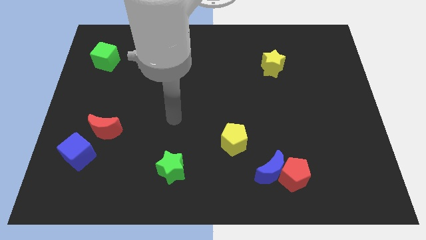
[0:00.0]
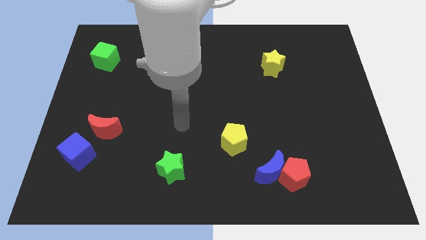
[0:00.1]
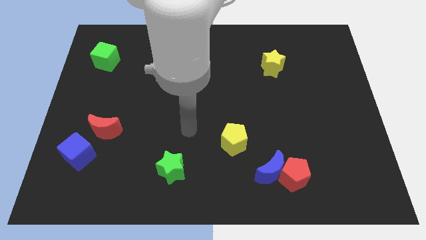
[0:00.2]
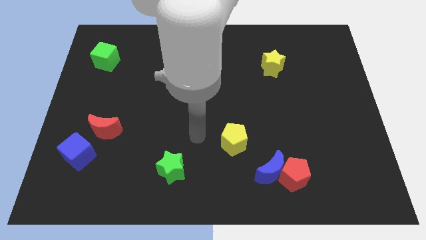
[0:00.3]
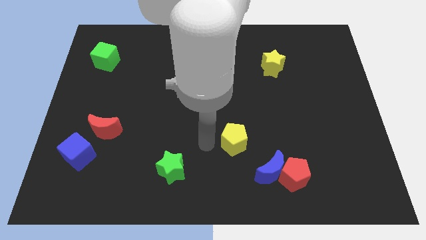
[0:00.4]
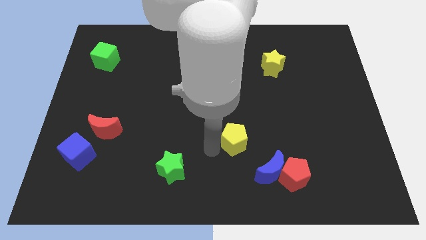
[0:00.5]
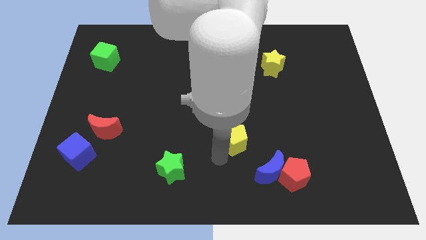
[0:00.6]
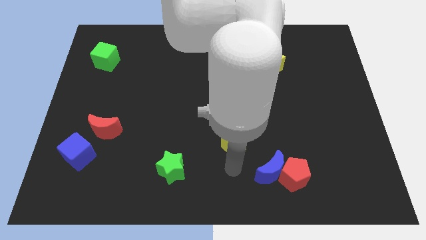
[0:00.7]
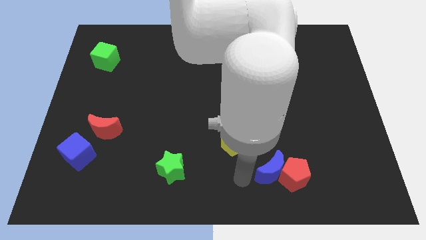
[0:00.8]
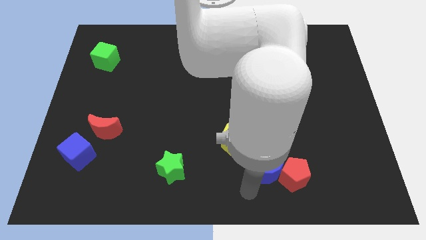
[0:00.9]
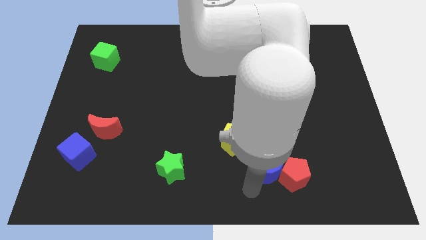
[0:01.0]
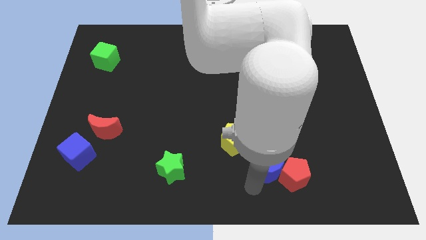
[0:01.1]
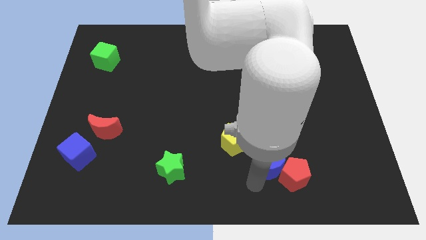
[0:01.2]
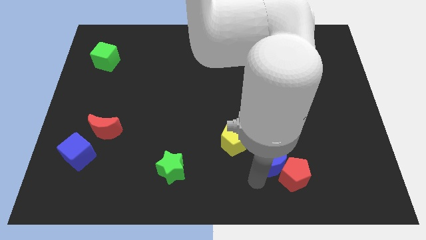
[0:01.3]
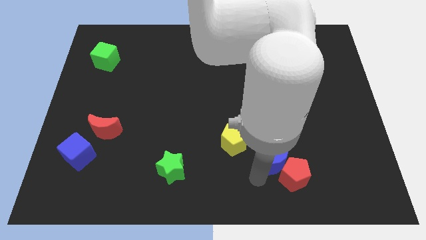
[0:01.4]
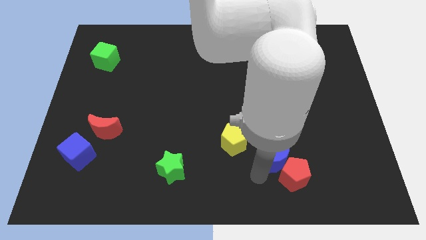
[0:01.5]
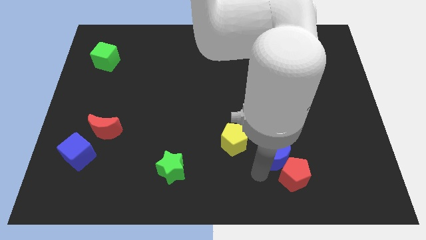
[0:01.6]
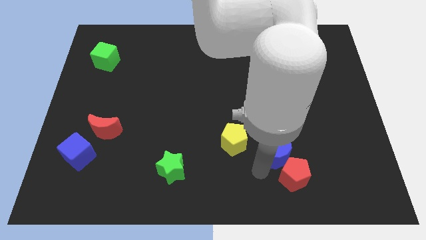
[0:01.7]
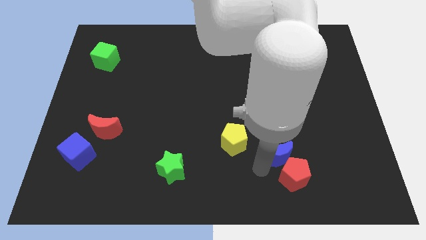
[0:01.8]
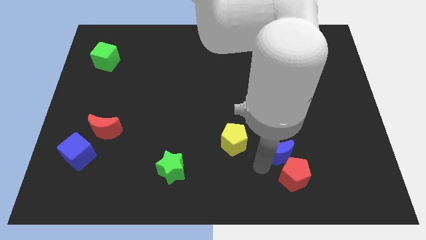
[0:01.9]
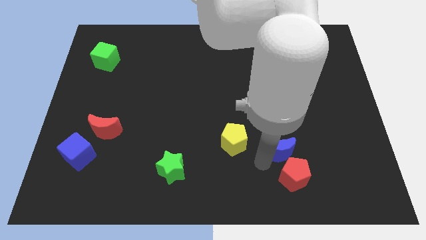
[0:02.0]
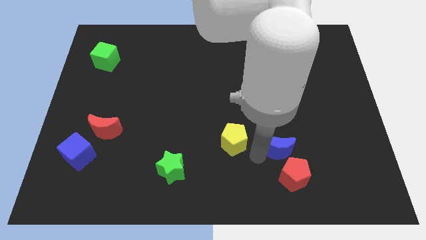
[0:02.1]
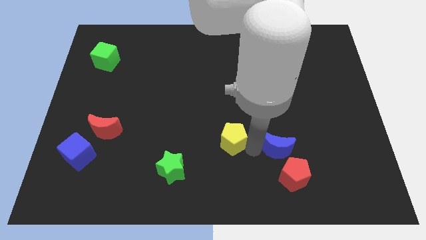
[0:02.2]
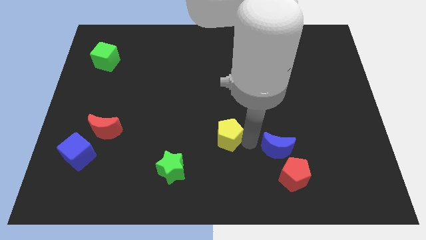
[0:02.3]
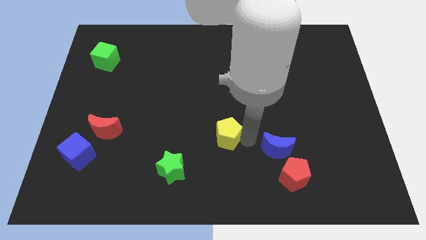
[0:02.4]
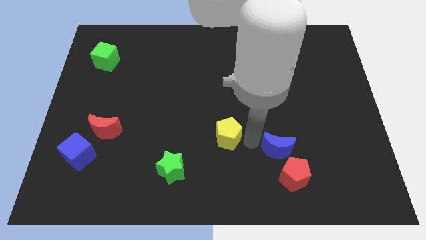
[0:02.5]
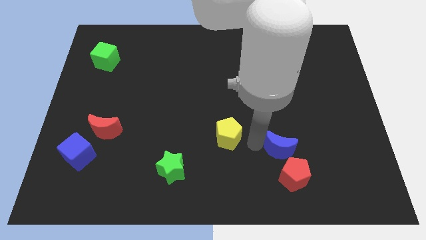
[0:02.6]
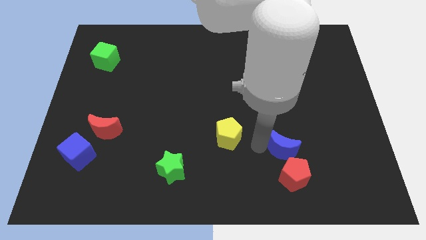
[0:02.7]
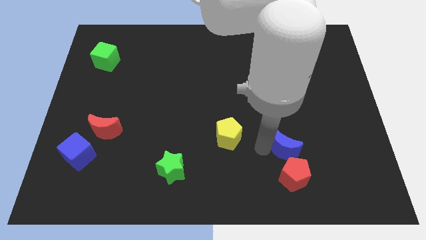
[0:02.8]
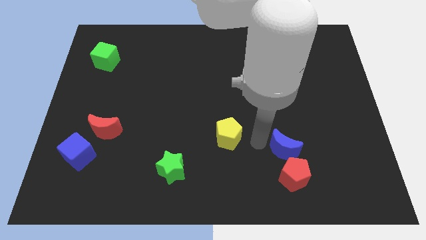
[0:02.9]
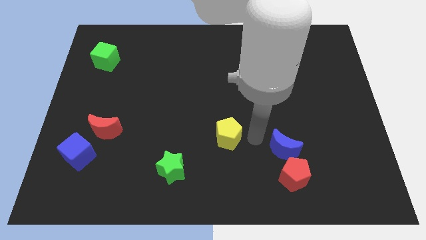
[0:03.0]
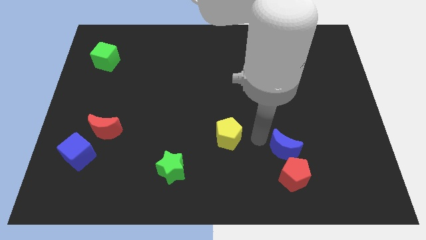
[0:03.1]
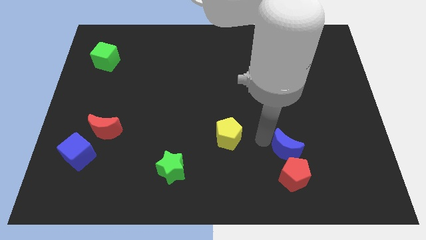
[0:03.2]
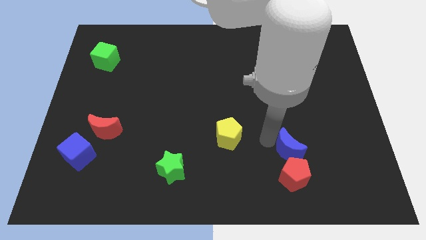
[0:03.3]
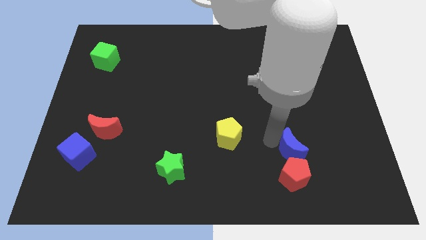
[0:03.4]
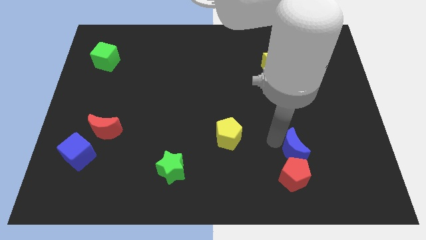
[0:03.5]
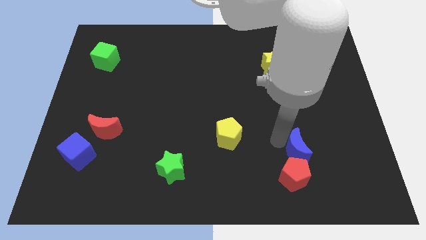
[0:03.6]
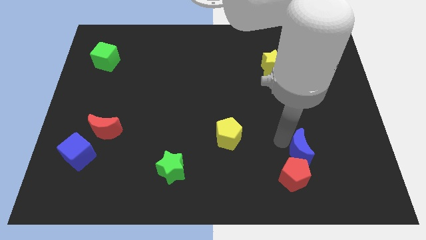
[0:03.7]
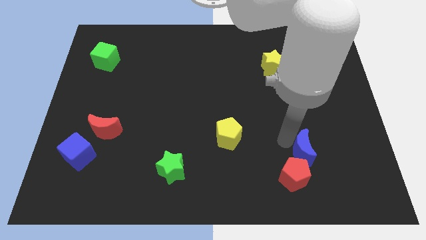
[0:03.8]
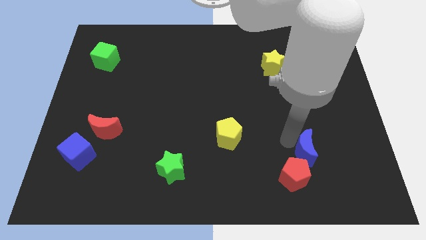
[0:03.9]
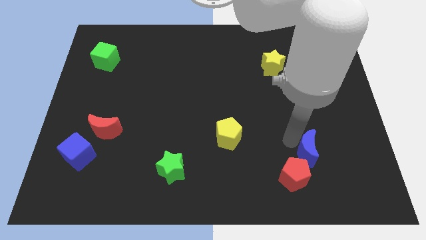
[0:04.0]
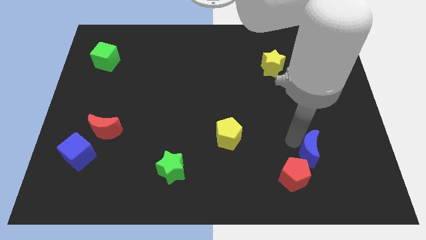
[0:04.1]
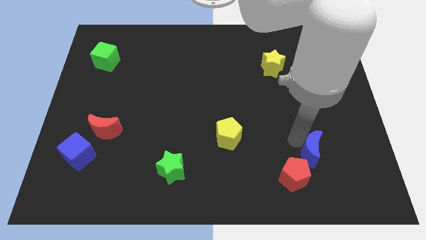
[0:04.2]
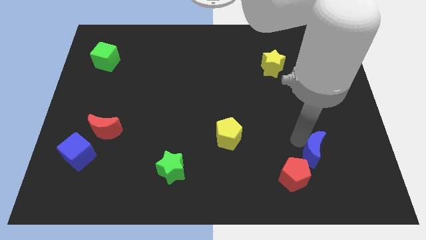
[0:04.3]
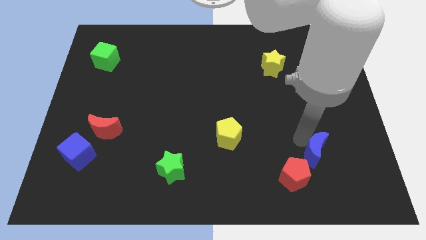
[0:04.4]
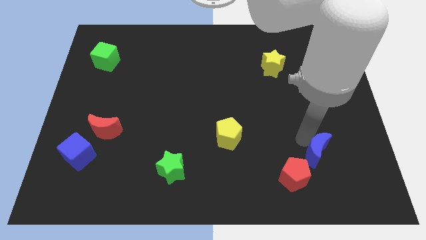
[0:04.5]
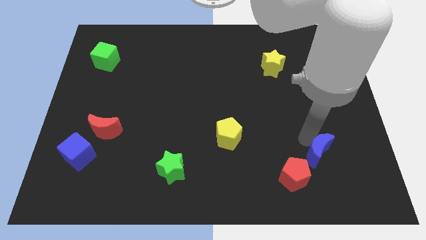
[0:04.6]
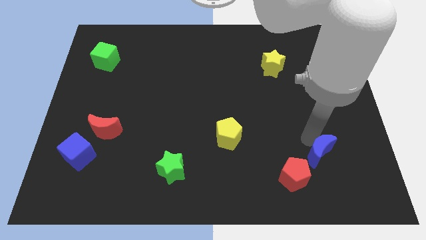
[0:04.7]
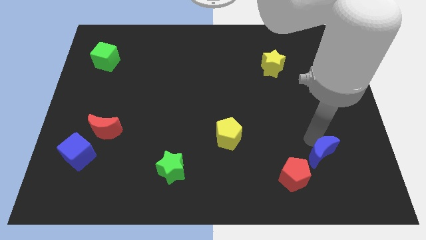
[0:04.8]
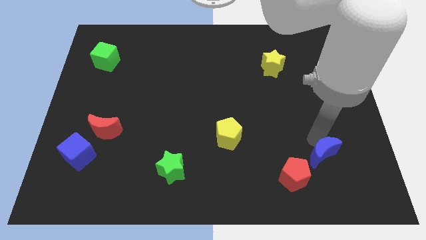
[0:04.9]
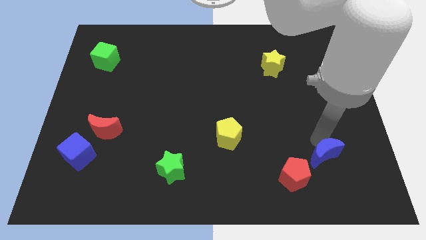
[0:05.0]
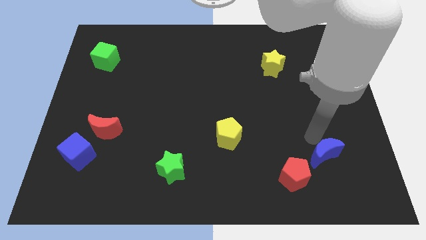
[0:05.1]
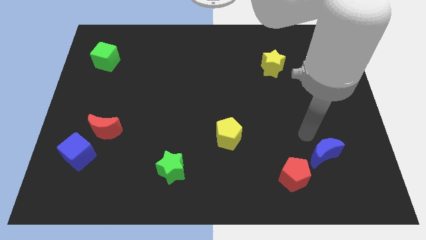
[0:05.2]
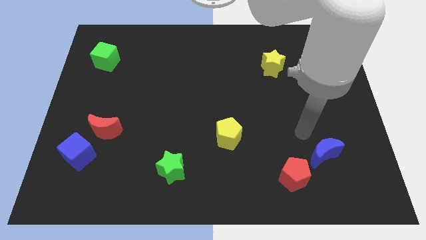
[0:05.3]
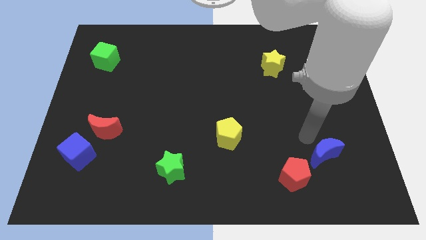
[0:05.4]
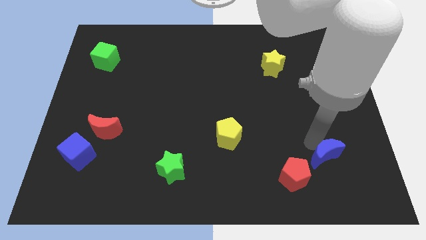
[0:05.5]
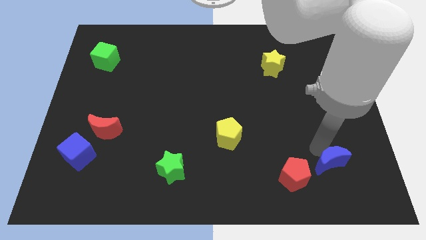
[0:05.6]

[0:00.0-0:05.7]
push the blue moon just right of the red pentagon

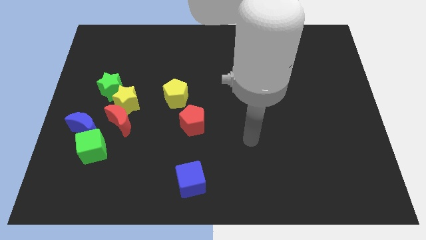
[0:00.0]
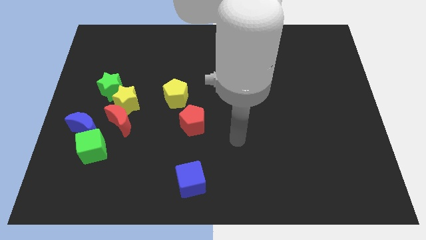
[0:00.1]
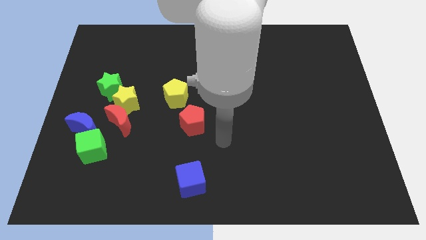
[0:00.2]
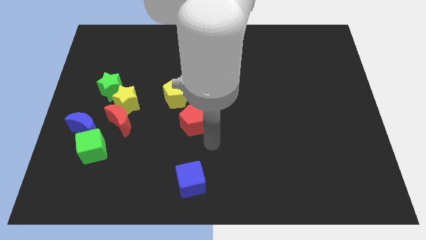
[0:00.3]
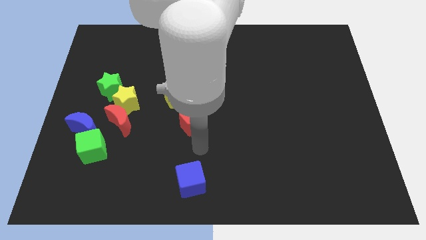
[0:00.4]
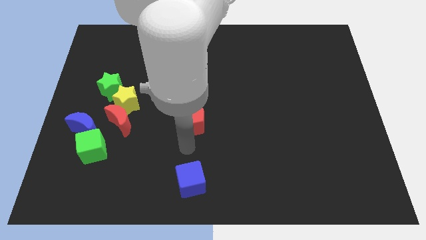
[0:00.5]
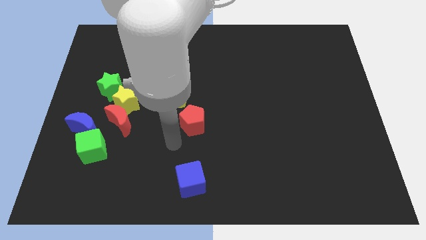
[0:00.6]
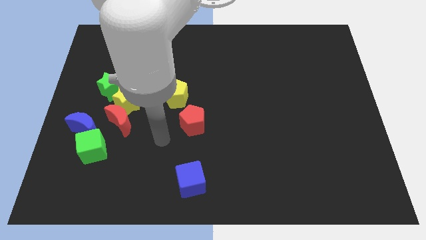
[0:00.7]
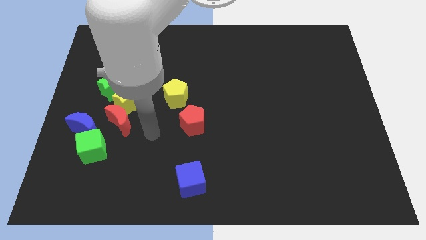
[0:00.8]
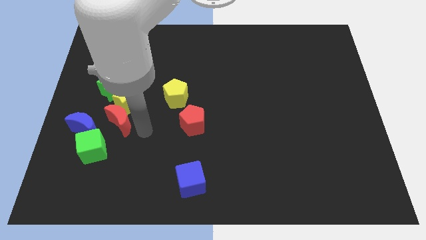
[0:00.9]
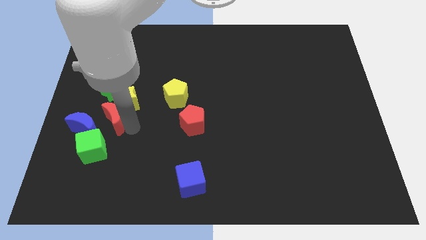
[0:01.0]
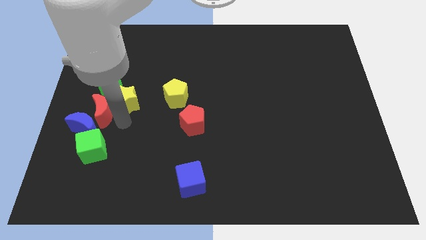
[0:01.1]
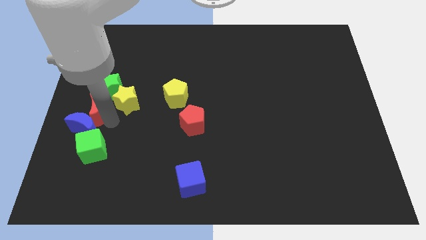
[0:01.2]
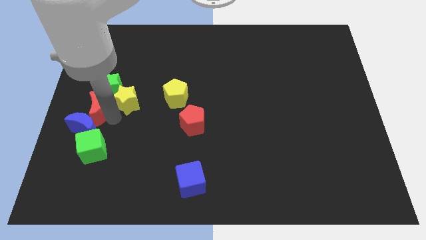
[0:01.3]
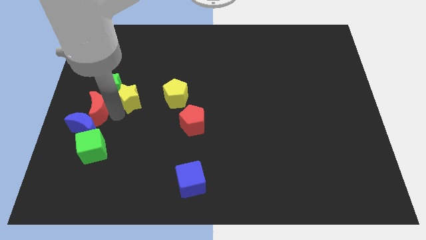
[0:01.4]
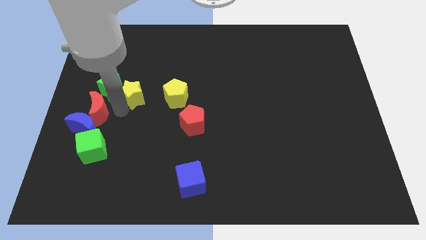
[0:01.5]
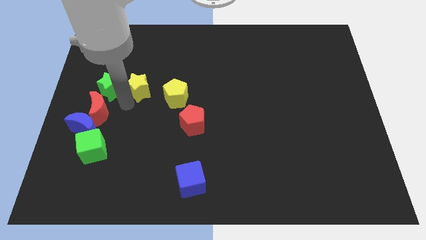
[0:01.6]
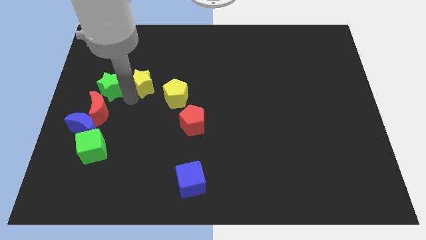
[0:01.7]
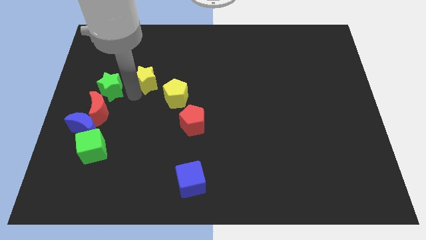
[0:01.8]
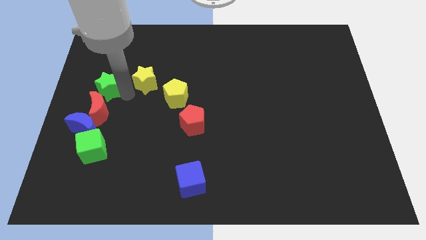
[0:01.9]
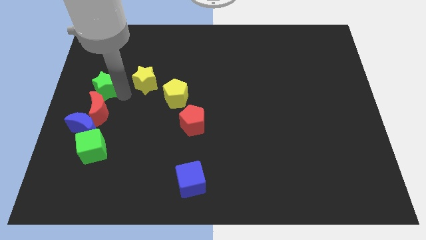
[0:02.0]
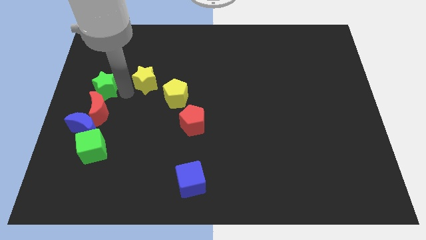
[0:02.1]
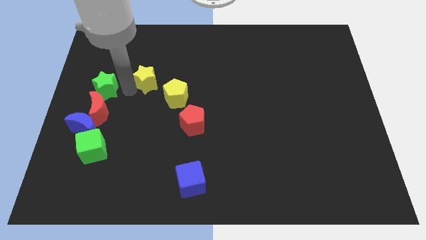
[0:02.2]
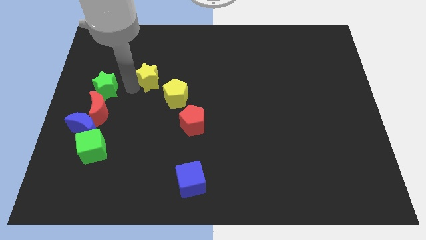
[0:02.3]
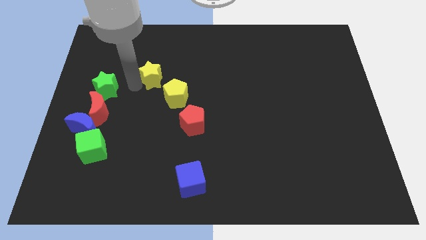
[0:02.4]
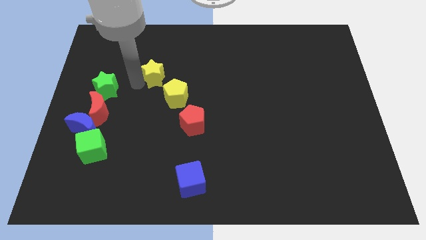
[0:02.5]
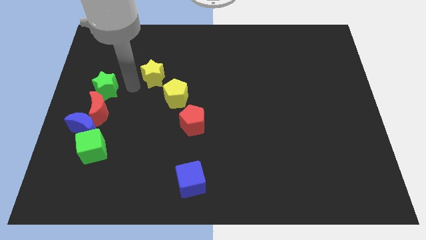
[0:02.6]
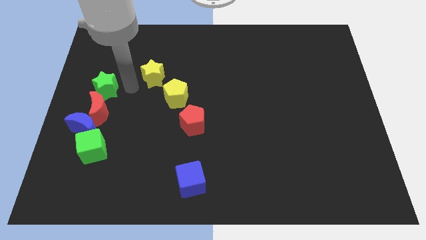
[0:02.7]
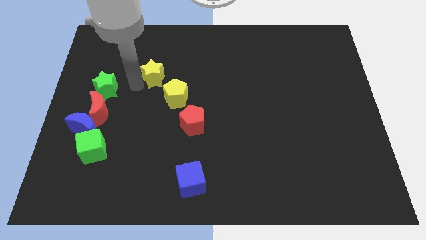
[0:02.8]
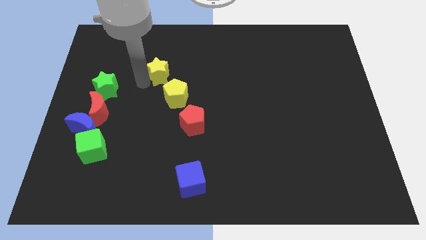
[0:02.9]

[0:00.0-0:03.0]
push the yellow star to the top of the yellow pentagon
